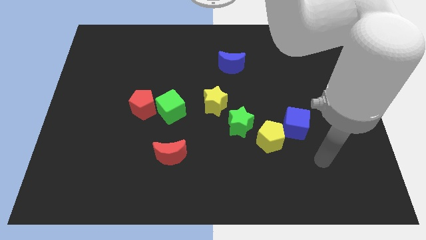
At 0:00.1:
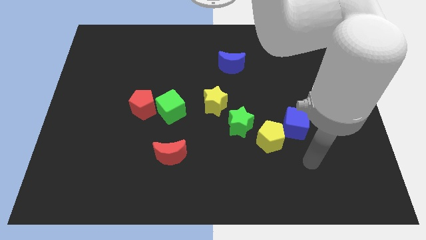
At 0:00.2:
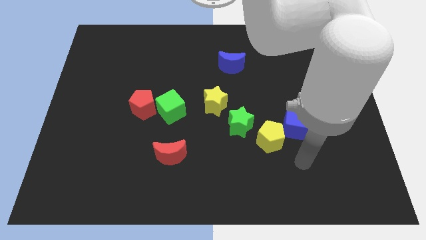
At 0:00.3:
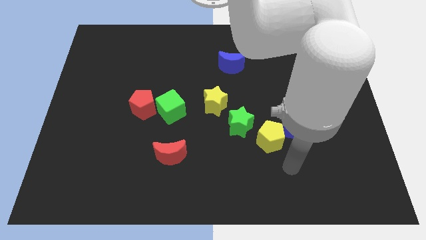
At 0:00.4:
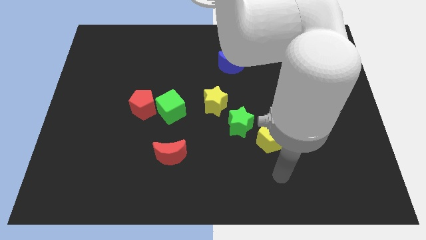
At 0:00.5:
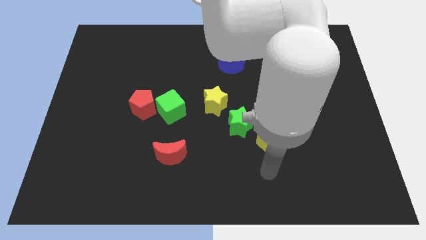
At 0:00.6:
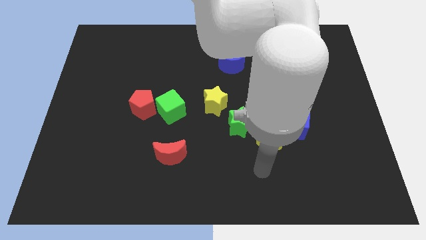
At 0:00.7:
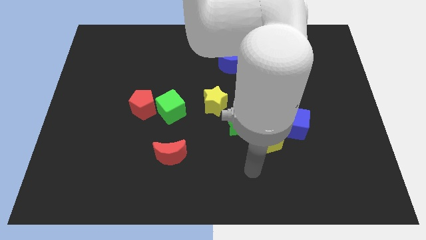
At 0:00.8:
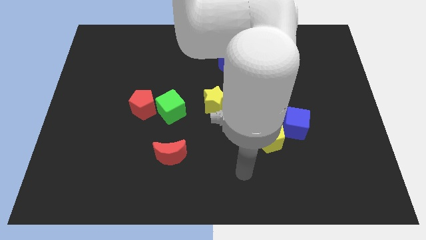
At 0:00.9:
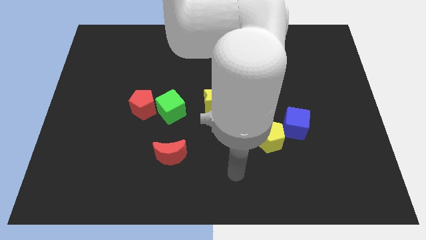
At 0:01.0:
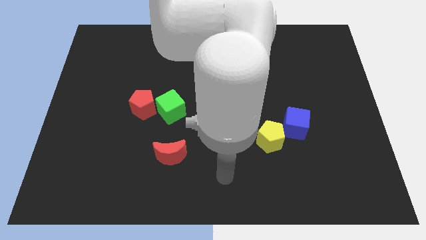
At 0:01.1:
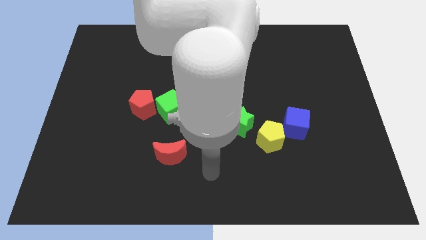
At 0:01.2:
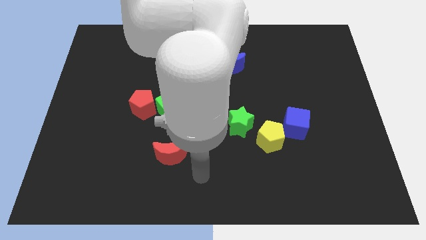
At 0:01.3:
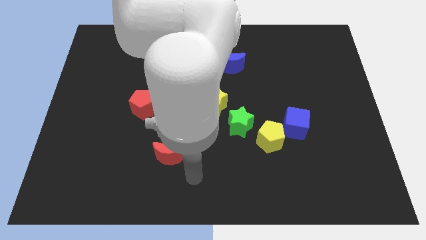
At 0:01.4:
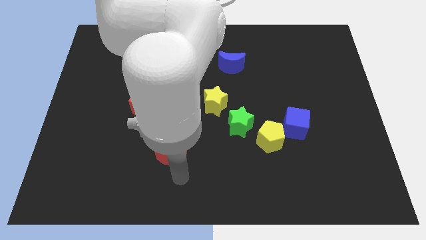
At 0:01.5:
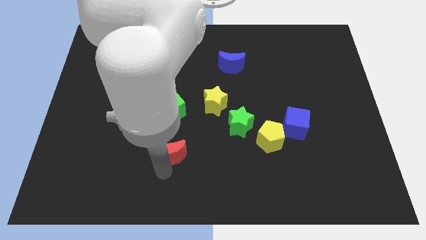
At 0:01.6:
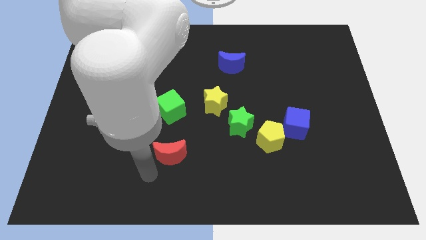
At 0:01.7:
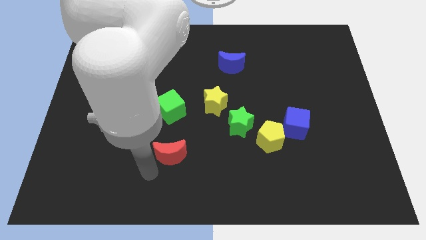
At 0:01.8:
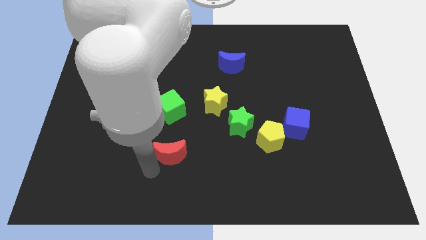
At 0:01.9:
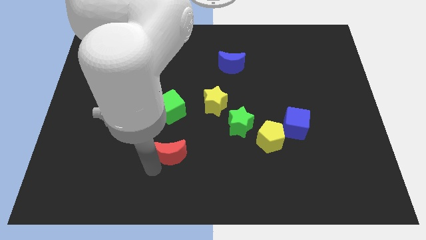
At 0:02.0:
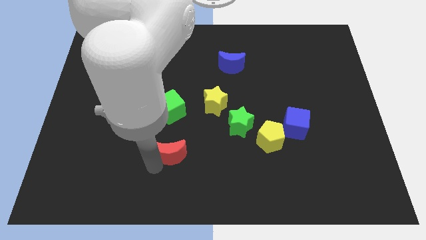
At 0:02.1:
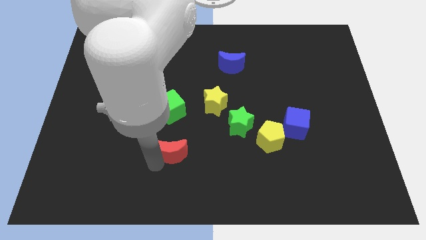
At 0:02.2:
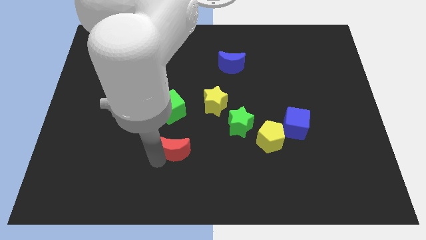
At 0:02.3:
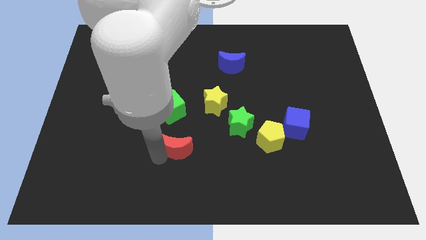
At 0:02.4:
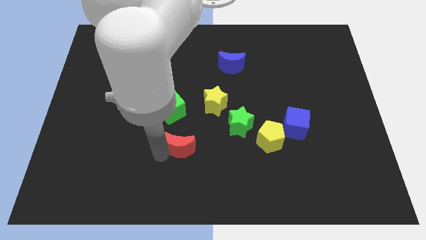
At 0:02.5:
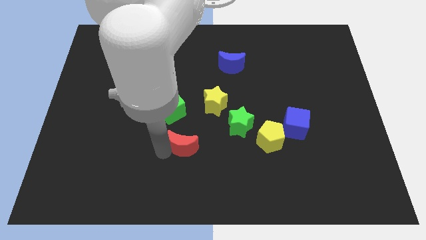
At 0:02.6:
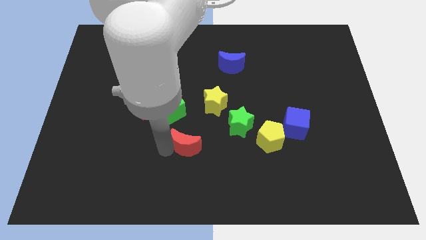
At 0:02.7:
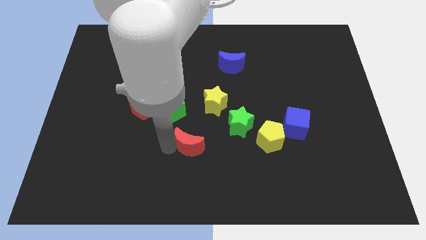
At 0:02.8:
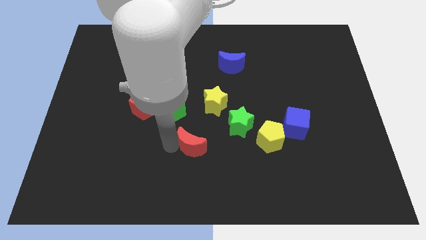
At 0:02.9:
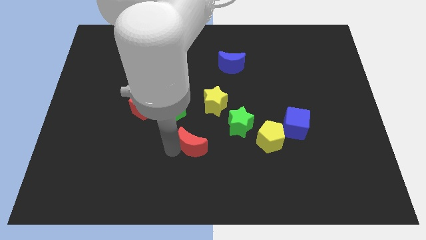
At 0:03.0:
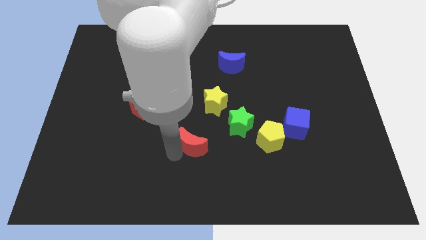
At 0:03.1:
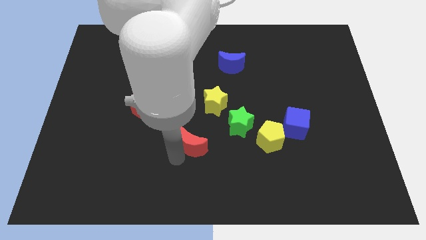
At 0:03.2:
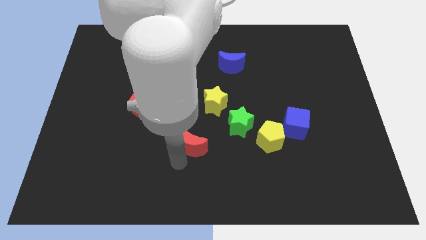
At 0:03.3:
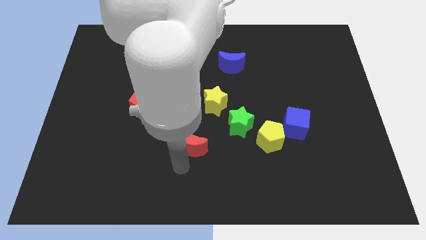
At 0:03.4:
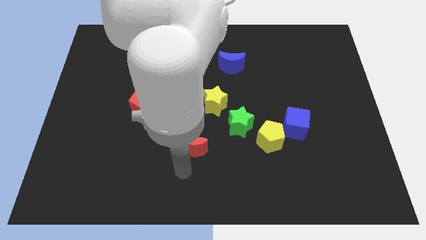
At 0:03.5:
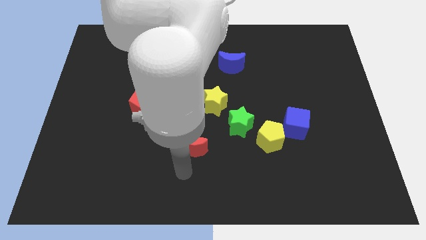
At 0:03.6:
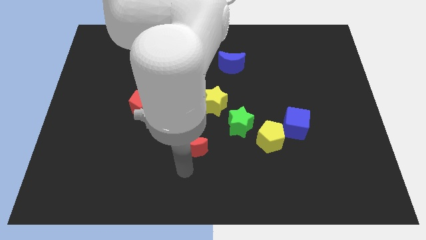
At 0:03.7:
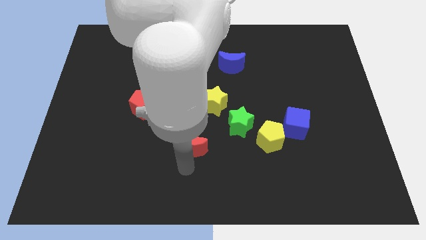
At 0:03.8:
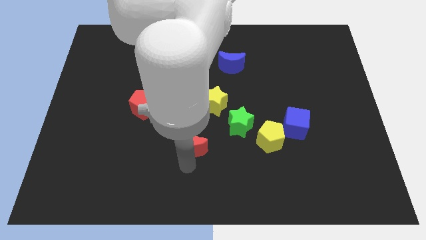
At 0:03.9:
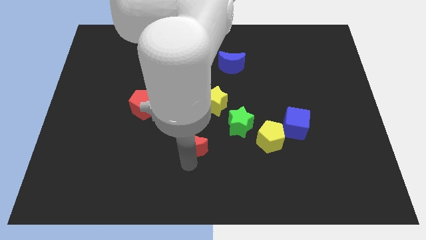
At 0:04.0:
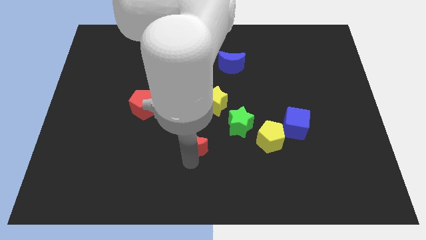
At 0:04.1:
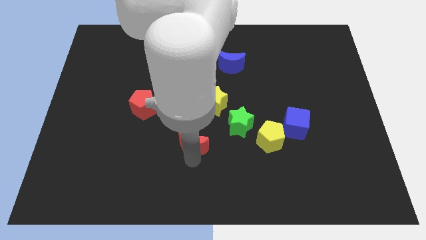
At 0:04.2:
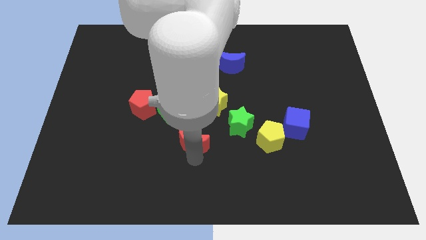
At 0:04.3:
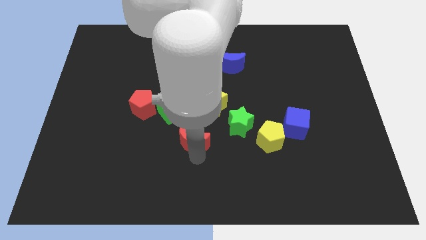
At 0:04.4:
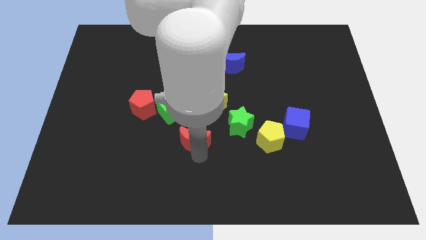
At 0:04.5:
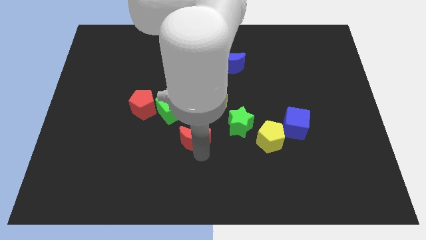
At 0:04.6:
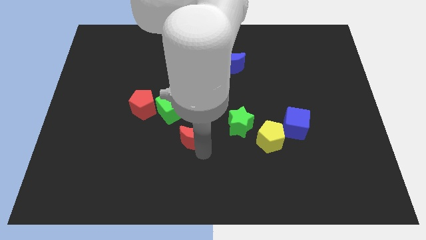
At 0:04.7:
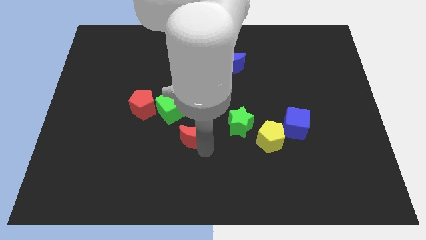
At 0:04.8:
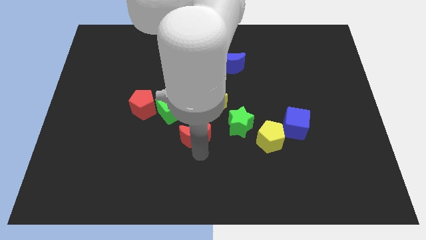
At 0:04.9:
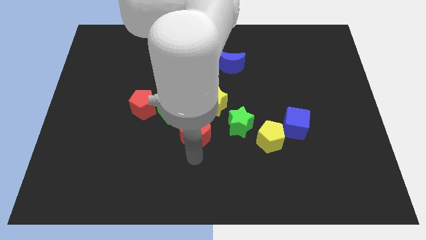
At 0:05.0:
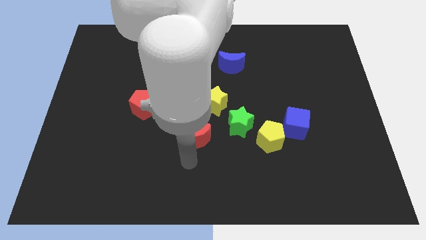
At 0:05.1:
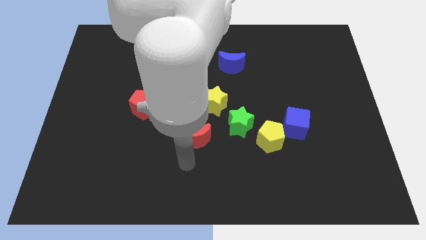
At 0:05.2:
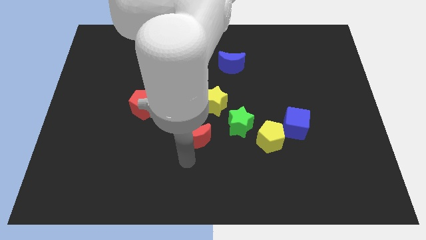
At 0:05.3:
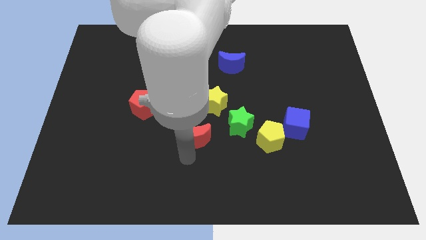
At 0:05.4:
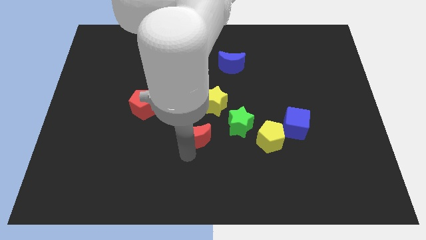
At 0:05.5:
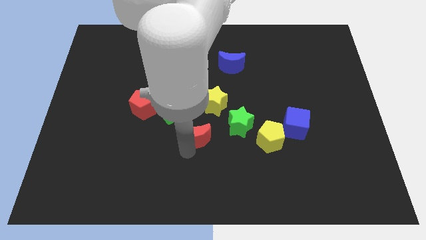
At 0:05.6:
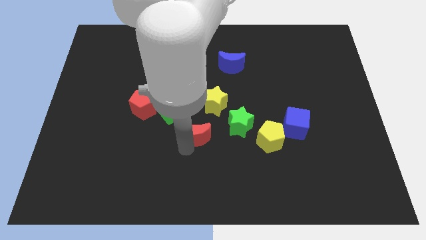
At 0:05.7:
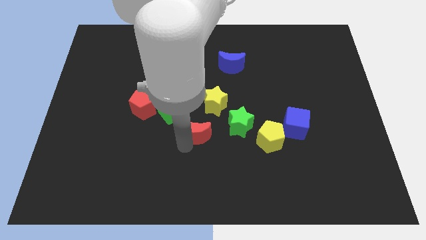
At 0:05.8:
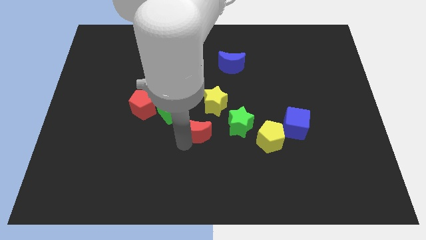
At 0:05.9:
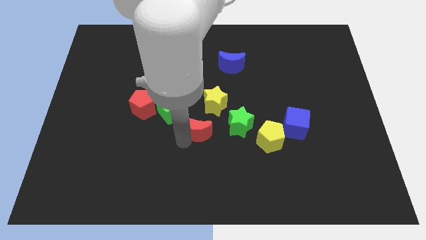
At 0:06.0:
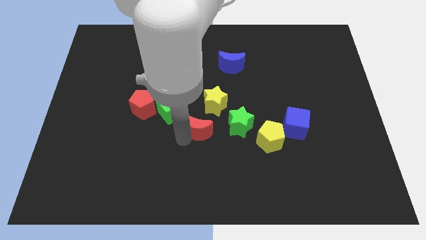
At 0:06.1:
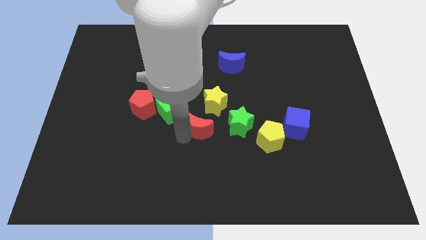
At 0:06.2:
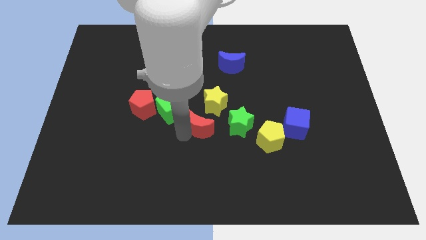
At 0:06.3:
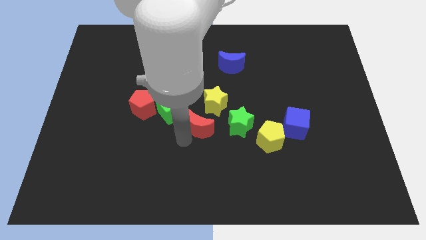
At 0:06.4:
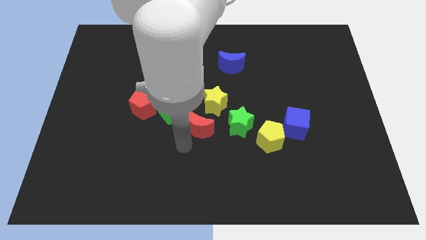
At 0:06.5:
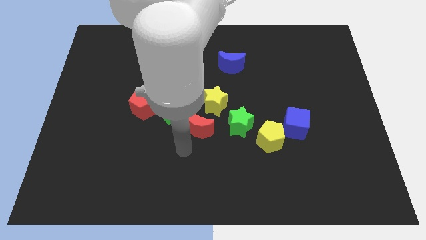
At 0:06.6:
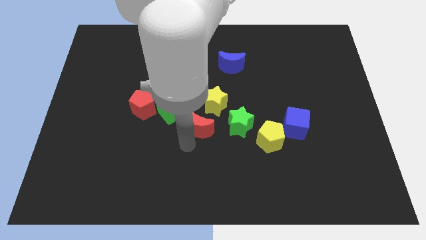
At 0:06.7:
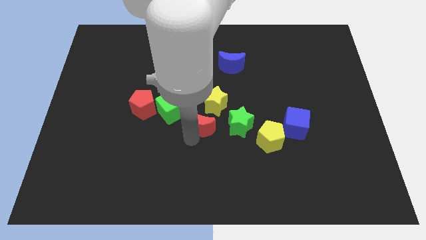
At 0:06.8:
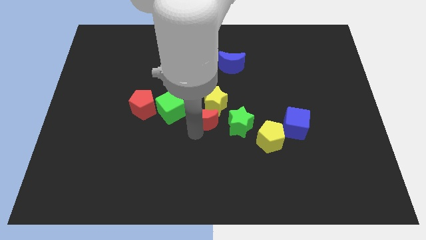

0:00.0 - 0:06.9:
slide the red moon next to the yellow star

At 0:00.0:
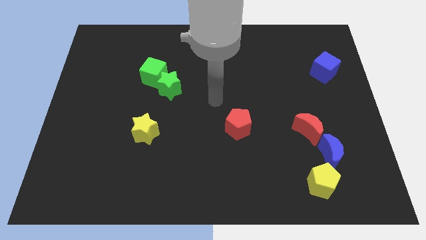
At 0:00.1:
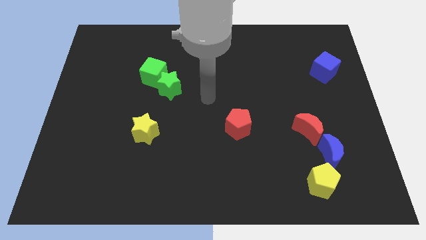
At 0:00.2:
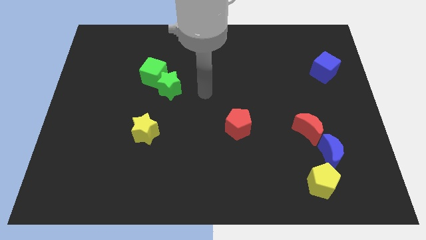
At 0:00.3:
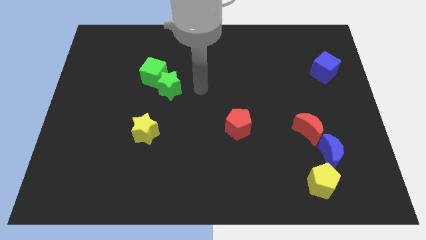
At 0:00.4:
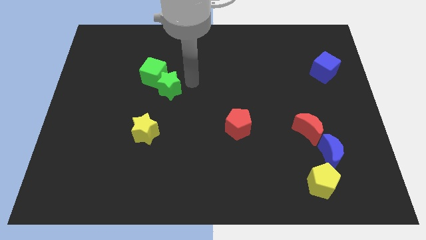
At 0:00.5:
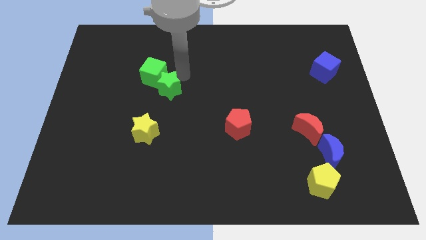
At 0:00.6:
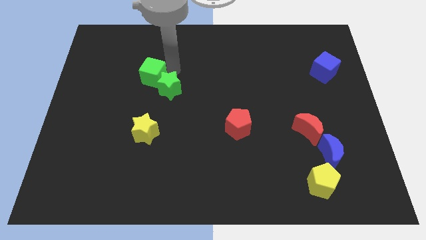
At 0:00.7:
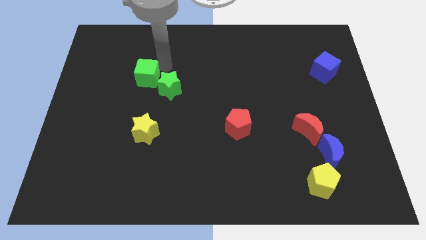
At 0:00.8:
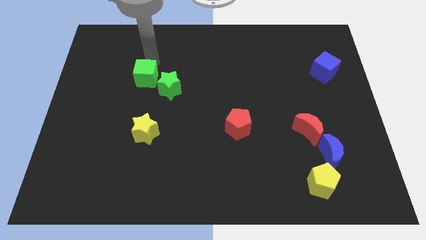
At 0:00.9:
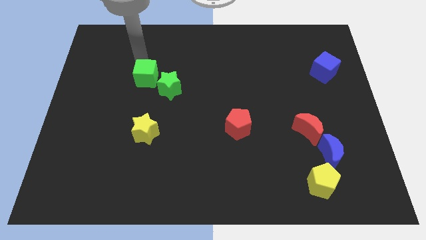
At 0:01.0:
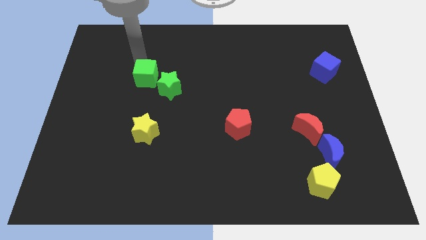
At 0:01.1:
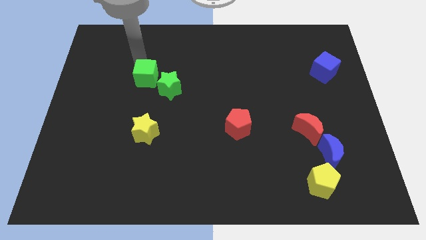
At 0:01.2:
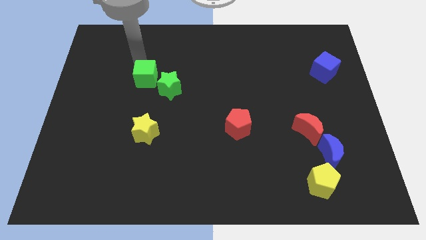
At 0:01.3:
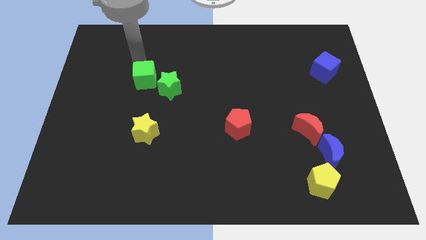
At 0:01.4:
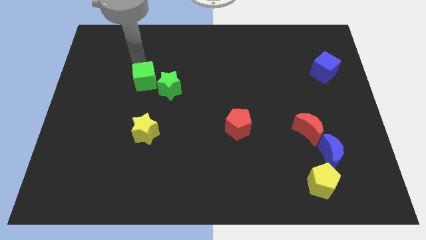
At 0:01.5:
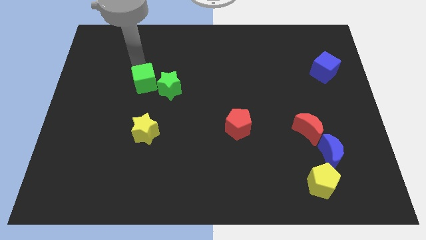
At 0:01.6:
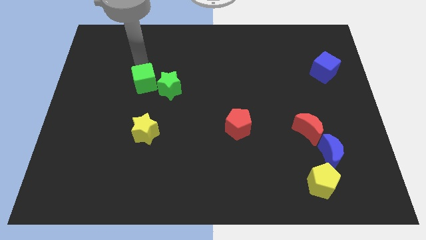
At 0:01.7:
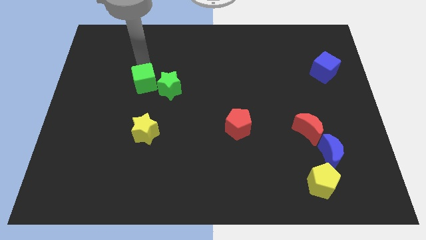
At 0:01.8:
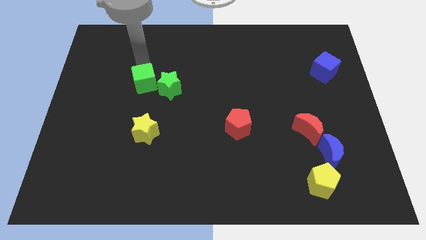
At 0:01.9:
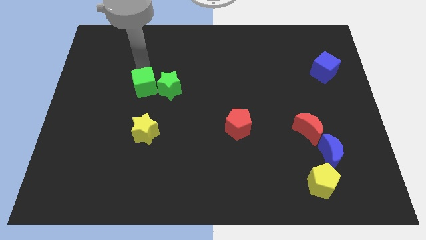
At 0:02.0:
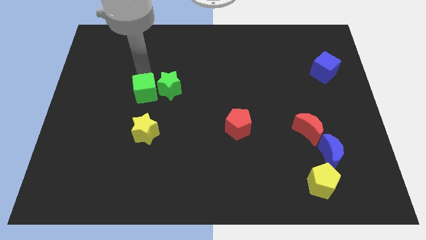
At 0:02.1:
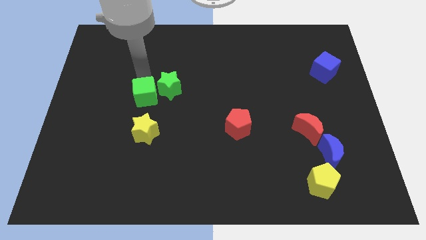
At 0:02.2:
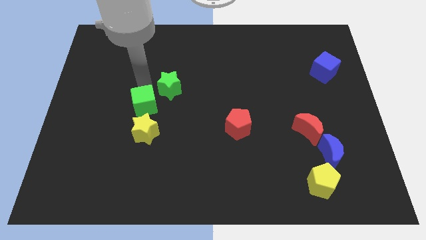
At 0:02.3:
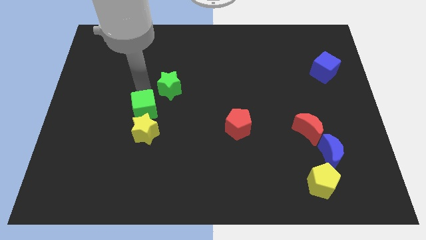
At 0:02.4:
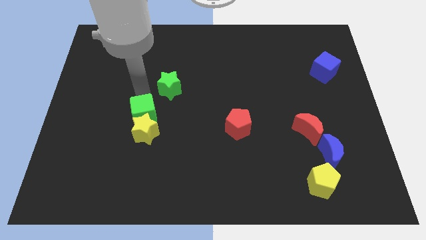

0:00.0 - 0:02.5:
move the green cube to the yellow star
